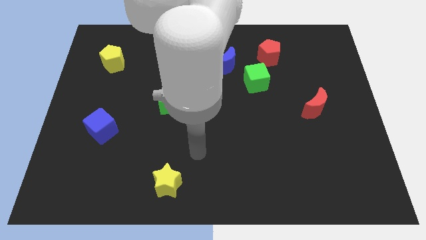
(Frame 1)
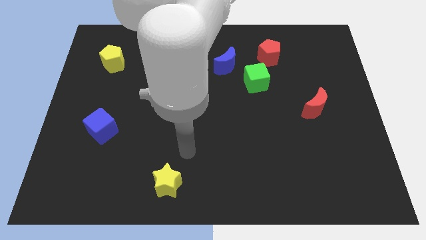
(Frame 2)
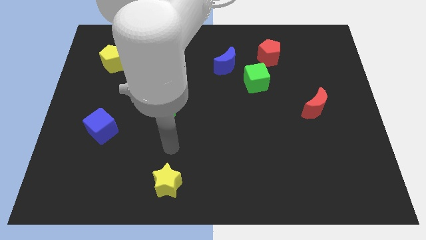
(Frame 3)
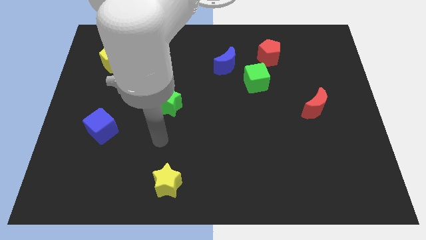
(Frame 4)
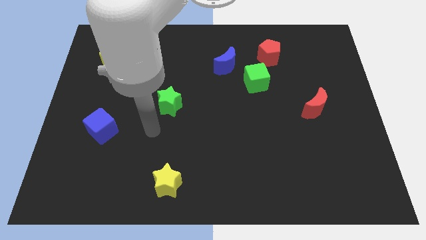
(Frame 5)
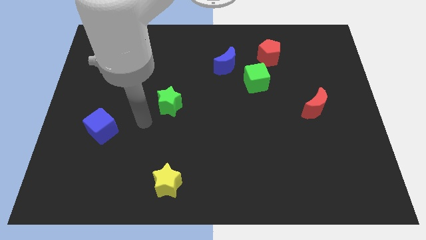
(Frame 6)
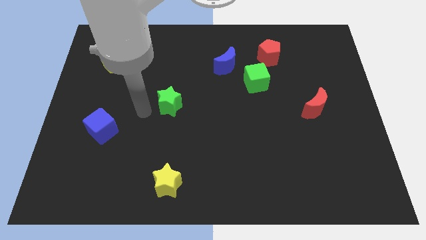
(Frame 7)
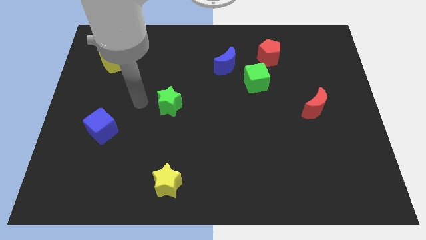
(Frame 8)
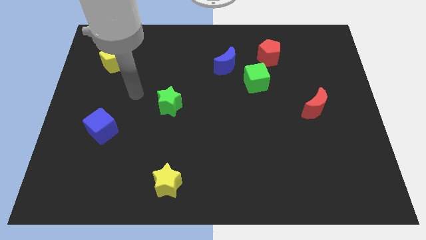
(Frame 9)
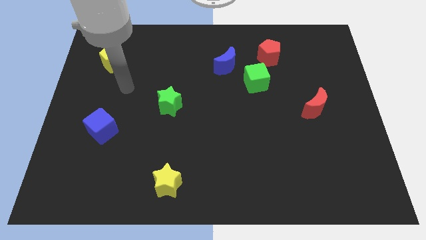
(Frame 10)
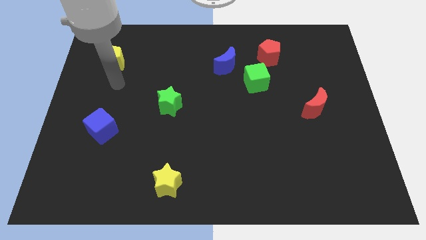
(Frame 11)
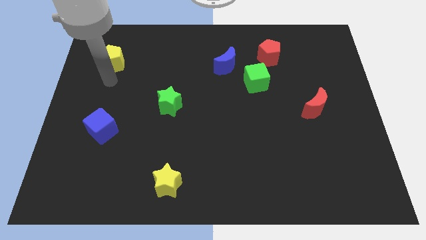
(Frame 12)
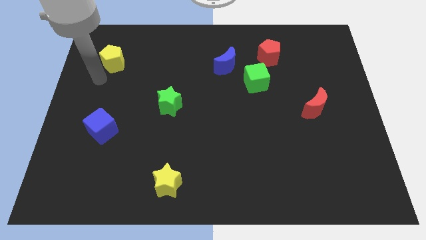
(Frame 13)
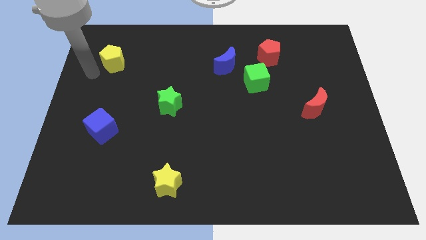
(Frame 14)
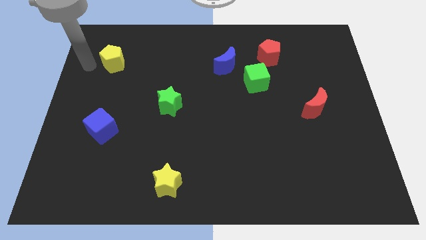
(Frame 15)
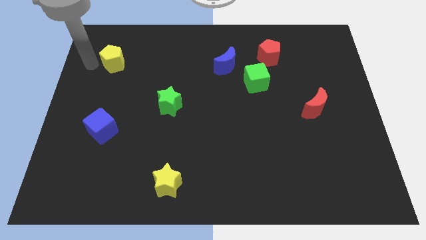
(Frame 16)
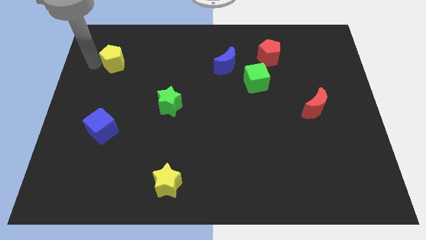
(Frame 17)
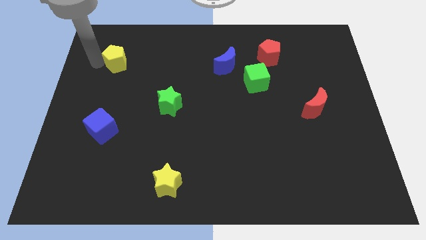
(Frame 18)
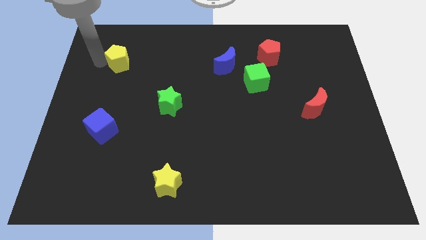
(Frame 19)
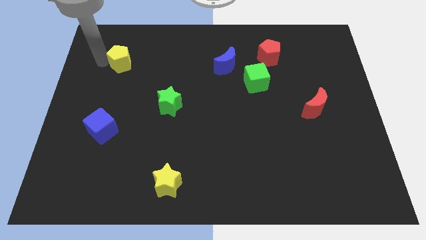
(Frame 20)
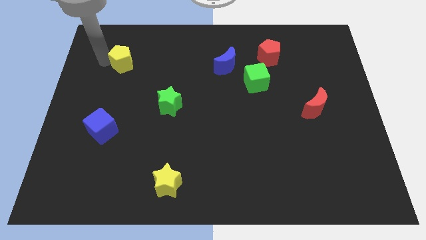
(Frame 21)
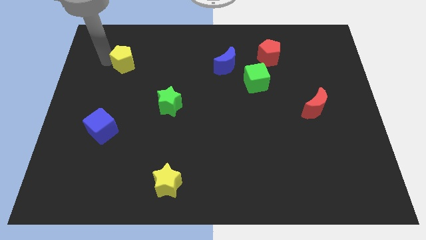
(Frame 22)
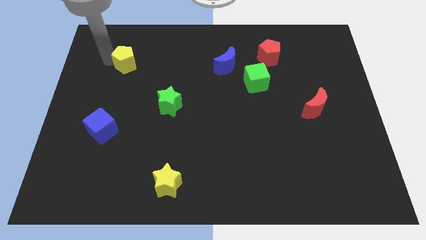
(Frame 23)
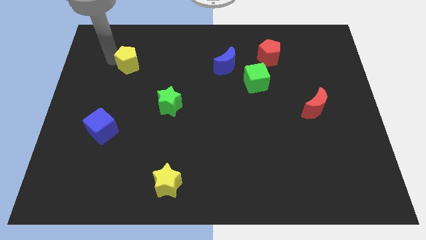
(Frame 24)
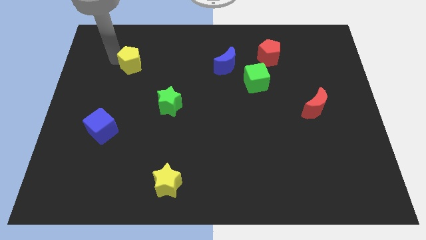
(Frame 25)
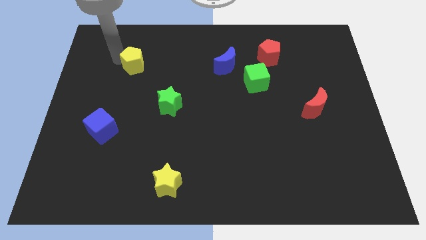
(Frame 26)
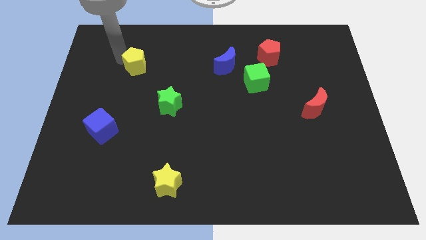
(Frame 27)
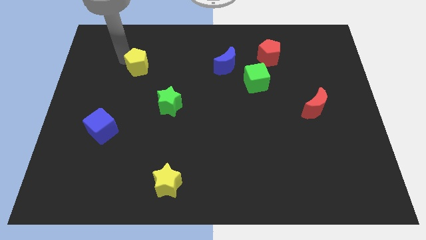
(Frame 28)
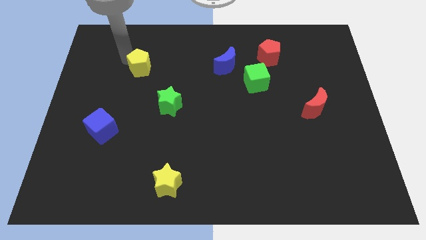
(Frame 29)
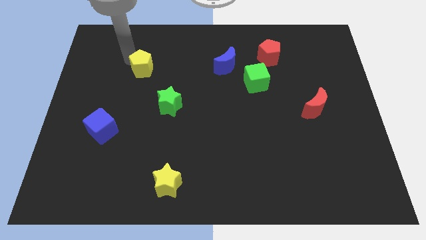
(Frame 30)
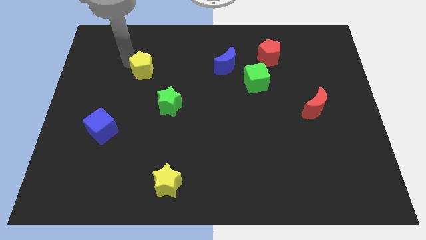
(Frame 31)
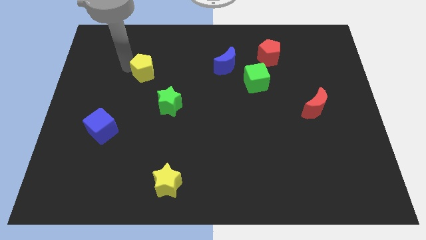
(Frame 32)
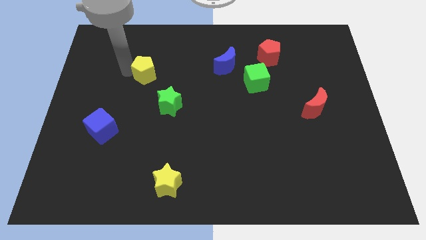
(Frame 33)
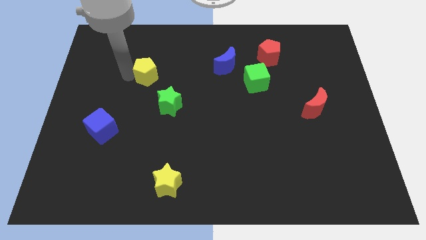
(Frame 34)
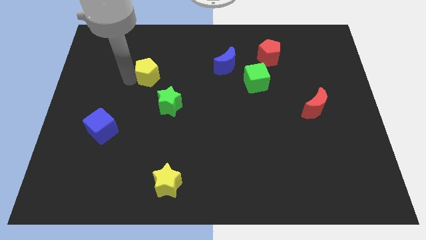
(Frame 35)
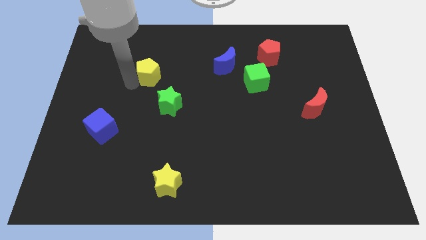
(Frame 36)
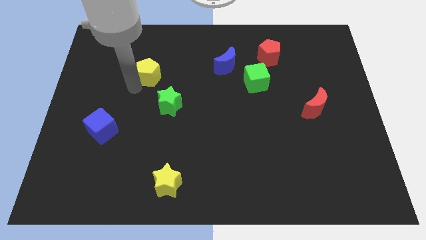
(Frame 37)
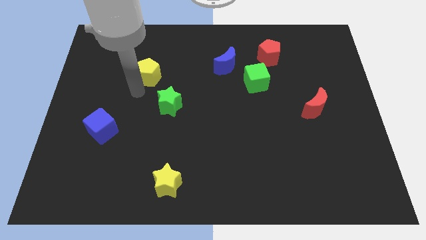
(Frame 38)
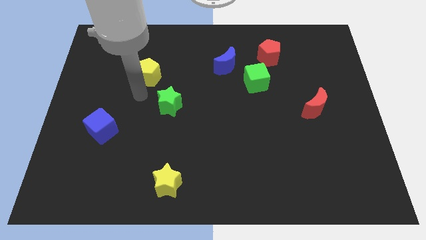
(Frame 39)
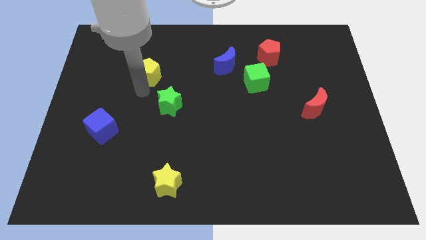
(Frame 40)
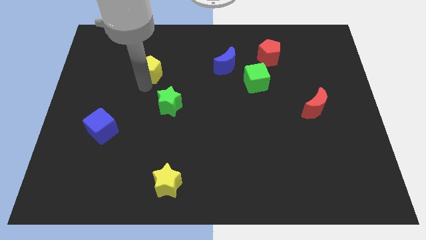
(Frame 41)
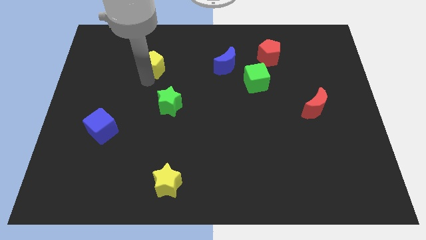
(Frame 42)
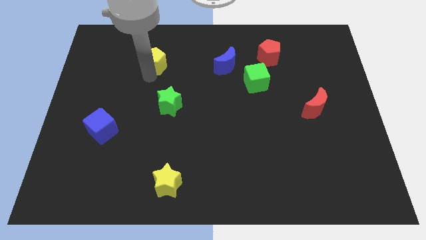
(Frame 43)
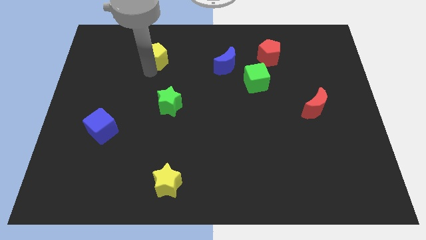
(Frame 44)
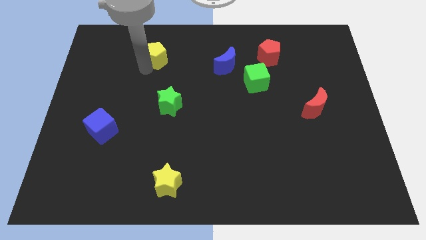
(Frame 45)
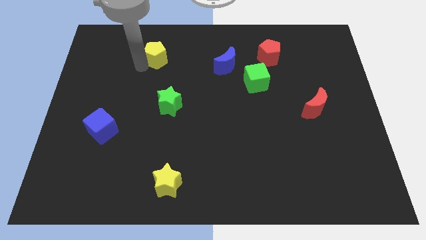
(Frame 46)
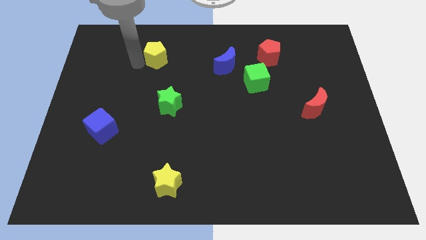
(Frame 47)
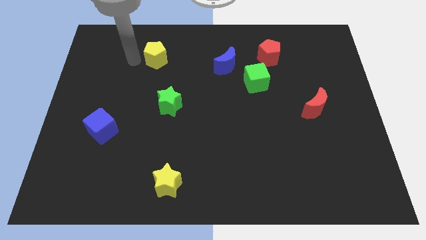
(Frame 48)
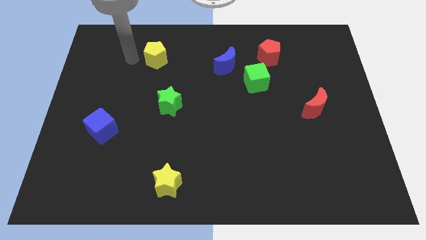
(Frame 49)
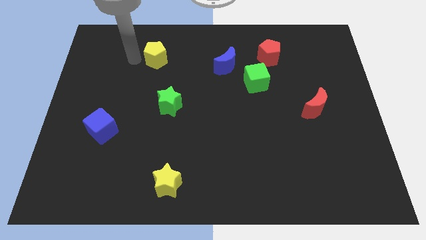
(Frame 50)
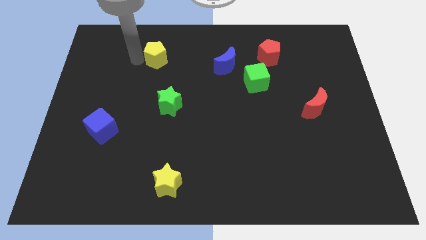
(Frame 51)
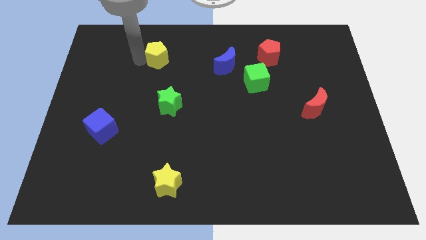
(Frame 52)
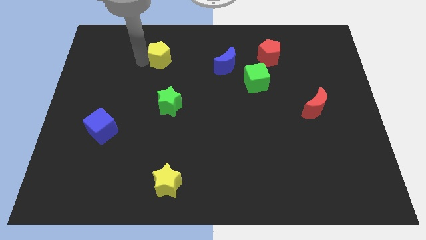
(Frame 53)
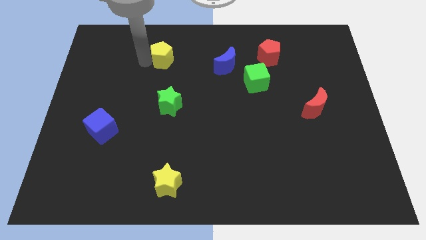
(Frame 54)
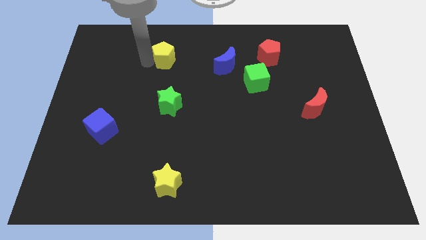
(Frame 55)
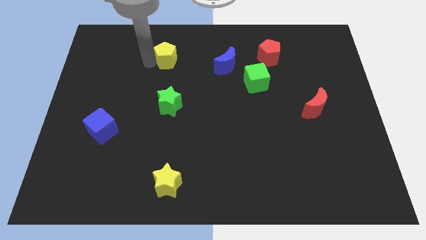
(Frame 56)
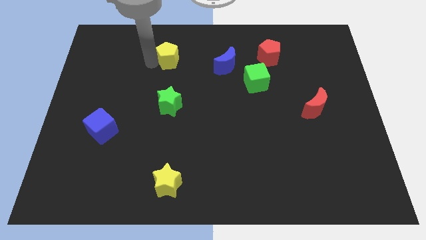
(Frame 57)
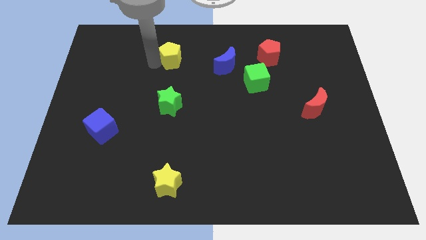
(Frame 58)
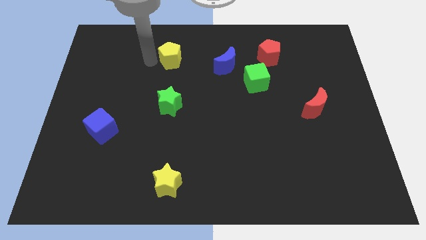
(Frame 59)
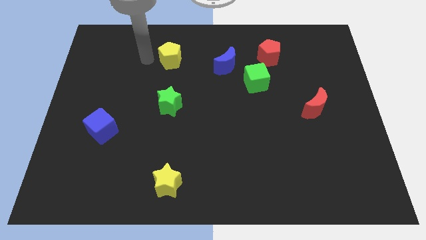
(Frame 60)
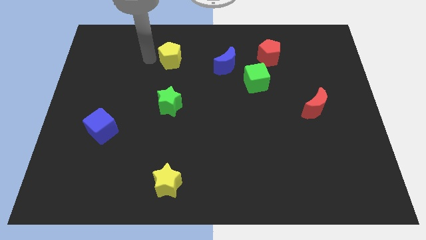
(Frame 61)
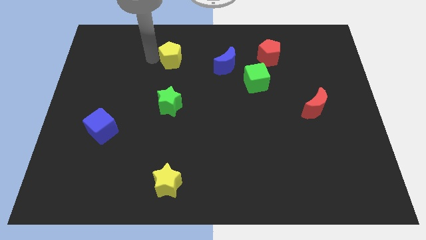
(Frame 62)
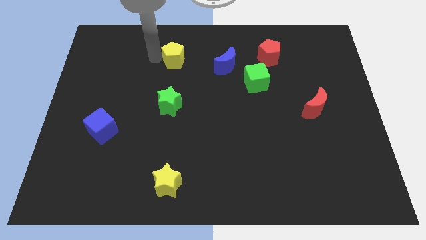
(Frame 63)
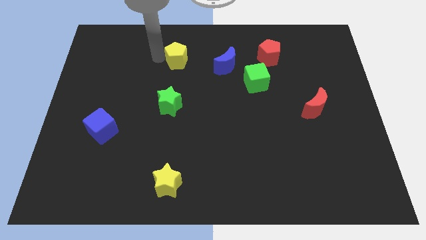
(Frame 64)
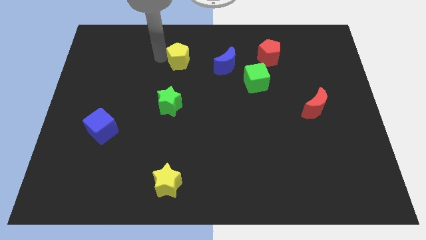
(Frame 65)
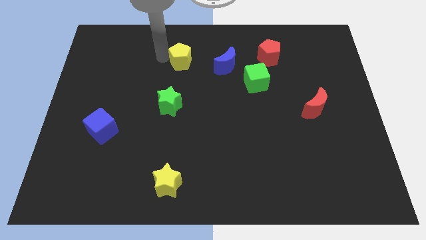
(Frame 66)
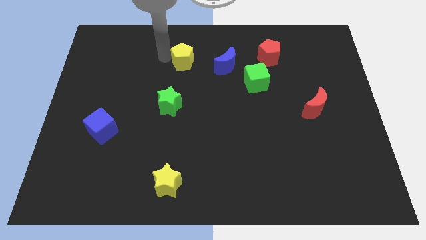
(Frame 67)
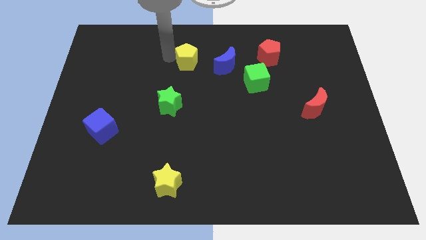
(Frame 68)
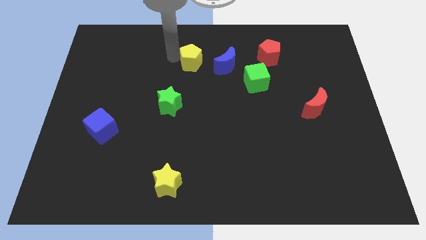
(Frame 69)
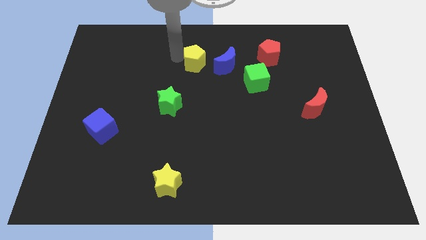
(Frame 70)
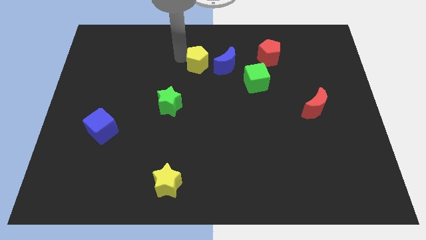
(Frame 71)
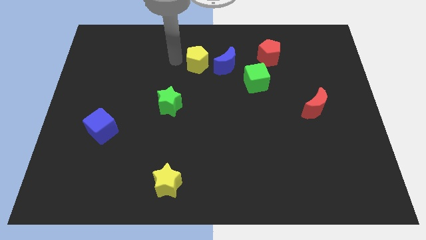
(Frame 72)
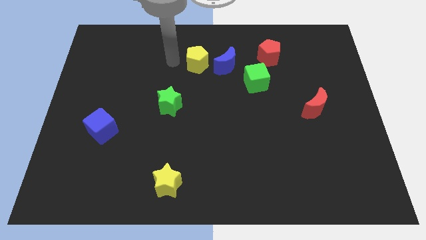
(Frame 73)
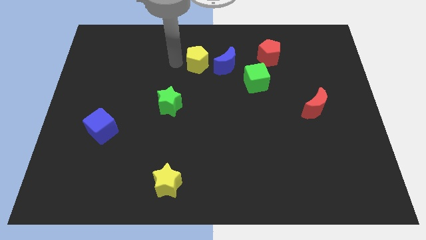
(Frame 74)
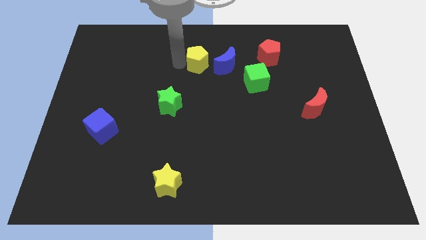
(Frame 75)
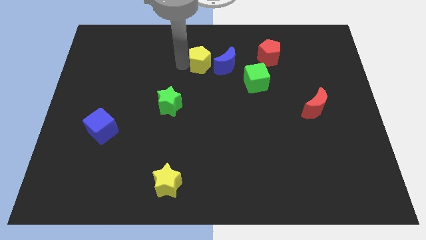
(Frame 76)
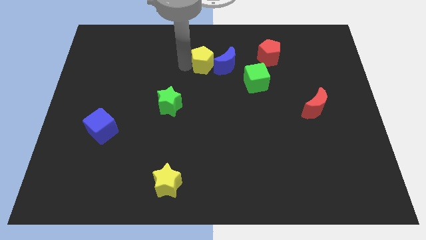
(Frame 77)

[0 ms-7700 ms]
push the yellow pentagon next to the blue moon
